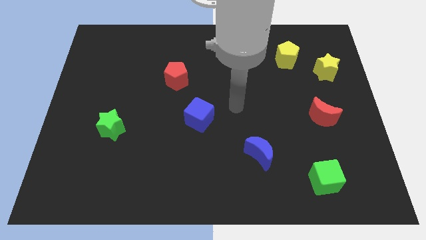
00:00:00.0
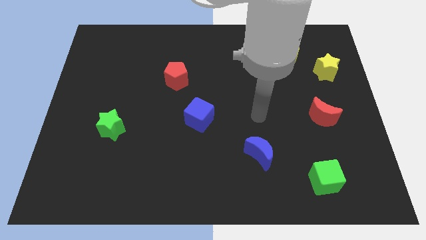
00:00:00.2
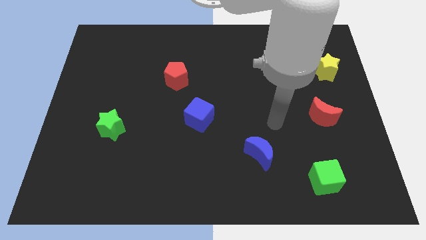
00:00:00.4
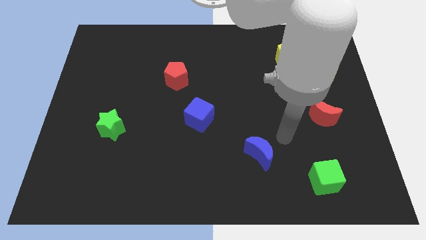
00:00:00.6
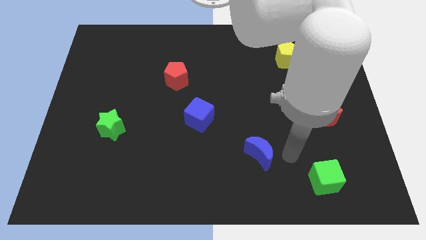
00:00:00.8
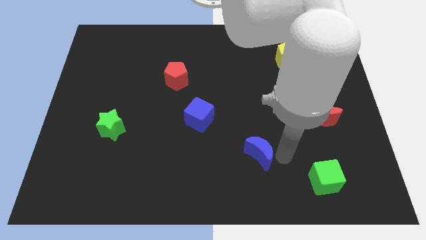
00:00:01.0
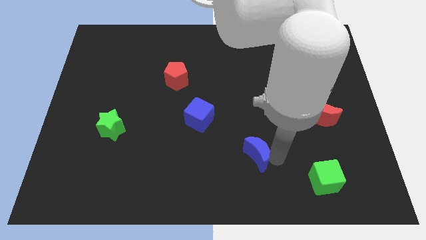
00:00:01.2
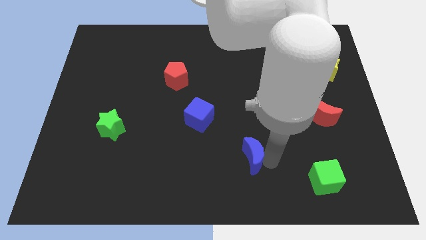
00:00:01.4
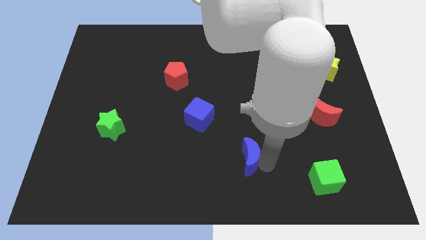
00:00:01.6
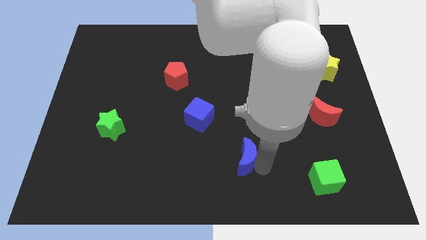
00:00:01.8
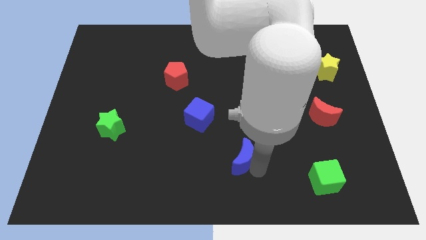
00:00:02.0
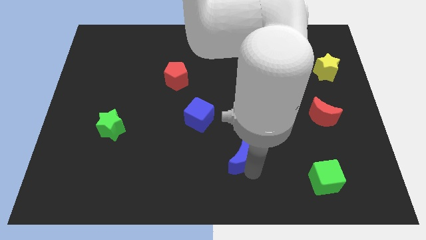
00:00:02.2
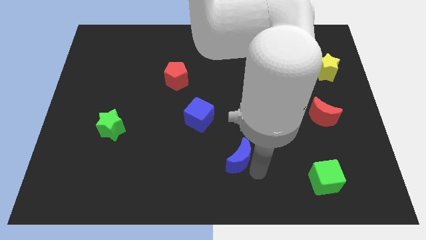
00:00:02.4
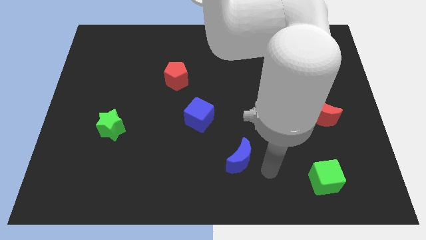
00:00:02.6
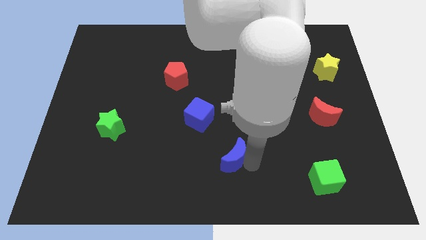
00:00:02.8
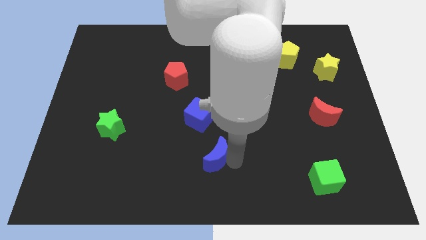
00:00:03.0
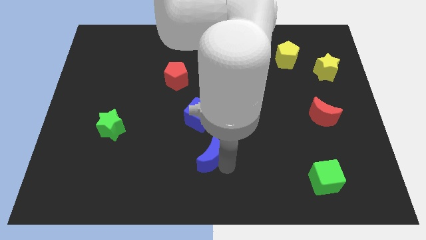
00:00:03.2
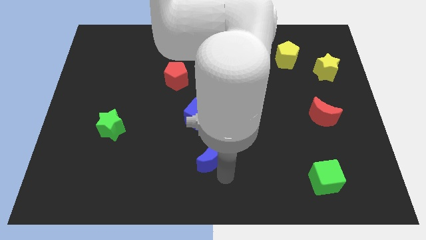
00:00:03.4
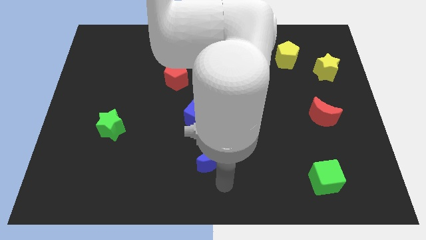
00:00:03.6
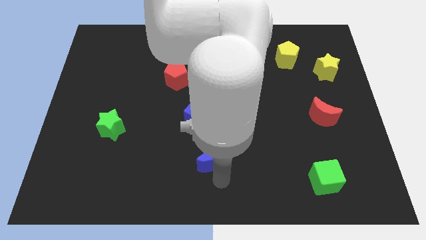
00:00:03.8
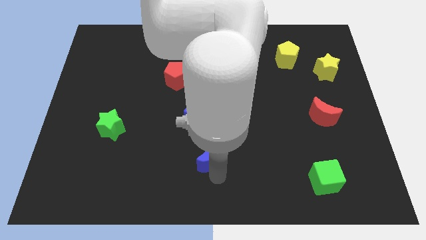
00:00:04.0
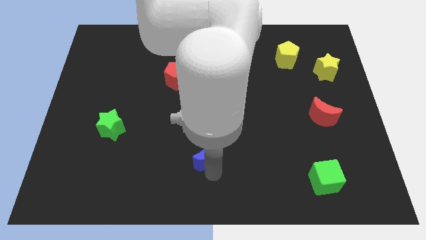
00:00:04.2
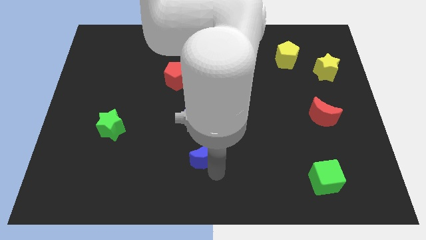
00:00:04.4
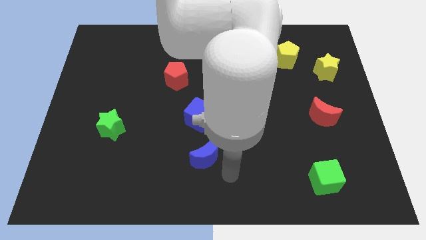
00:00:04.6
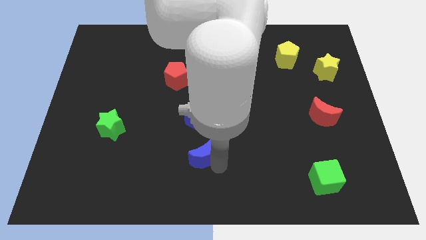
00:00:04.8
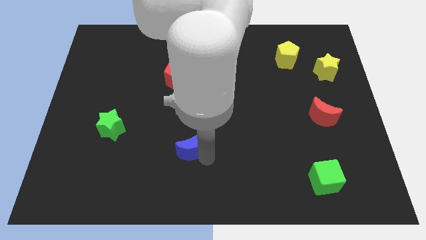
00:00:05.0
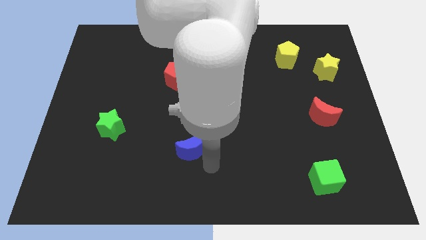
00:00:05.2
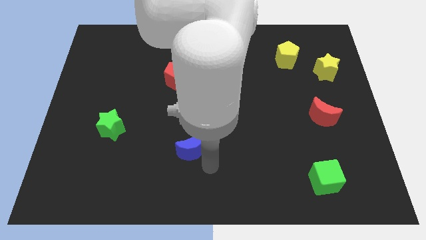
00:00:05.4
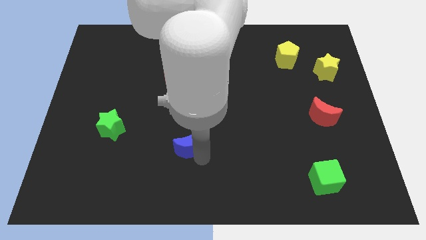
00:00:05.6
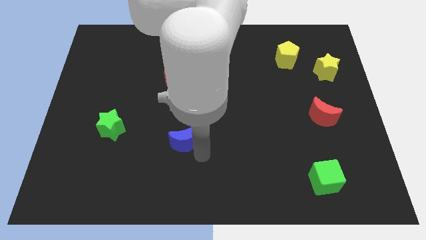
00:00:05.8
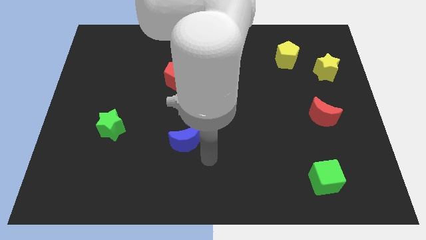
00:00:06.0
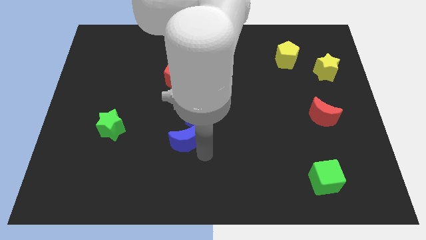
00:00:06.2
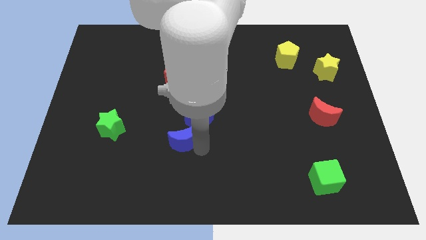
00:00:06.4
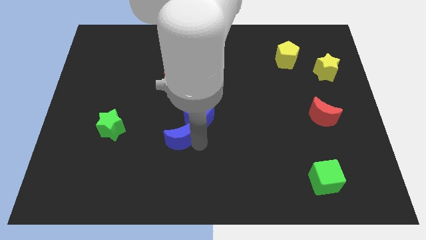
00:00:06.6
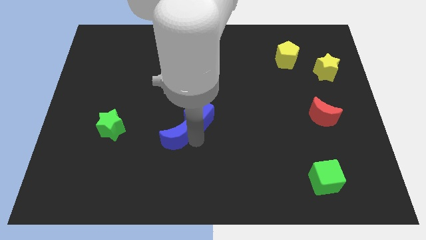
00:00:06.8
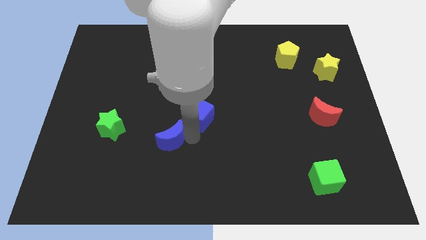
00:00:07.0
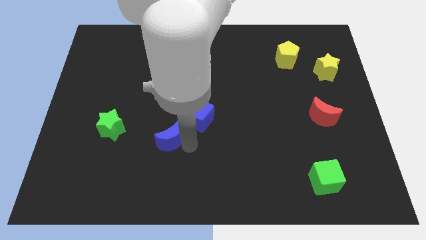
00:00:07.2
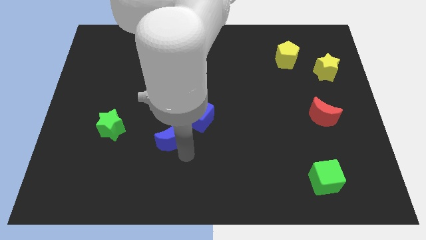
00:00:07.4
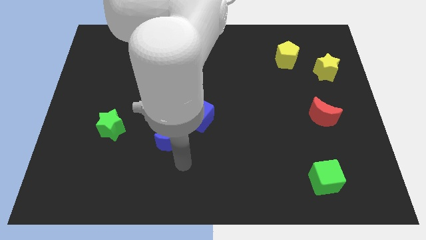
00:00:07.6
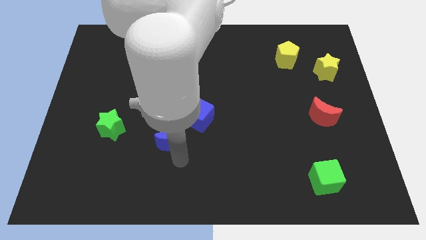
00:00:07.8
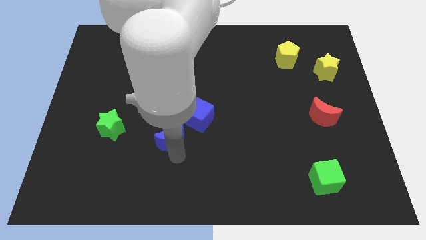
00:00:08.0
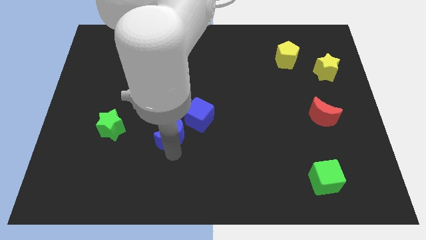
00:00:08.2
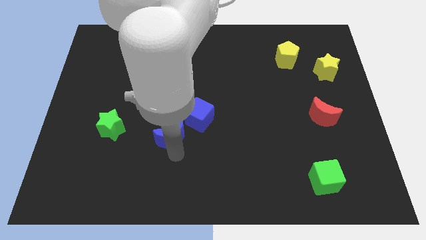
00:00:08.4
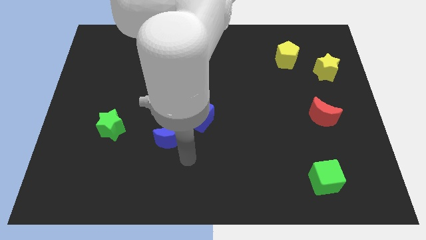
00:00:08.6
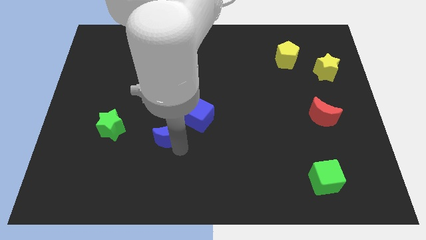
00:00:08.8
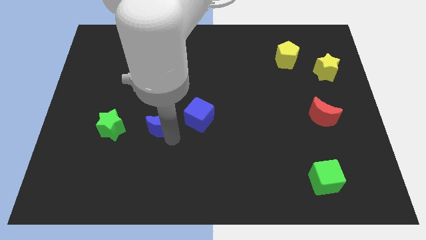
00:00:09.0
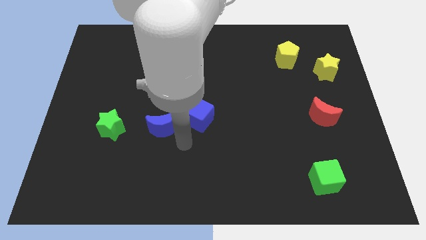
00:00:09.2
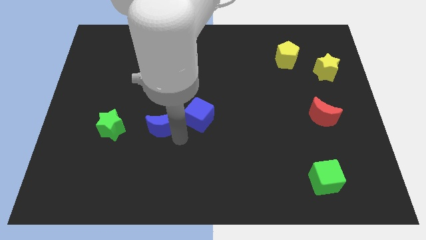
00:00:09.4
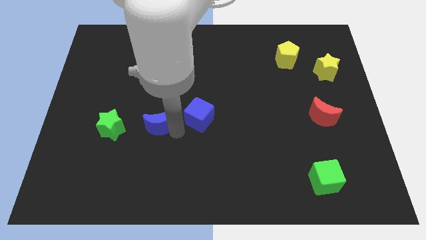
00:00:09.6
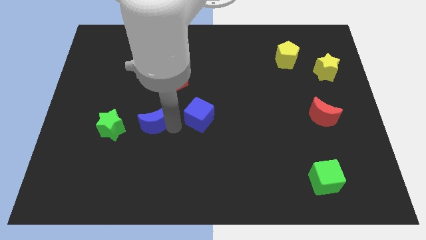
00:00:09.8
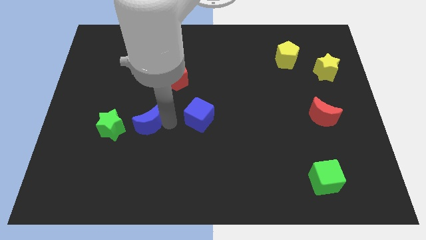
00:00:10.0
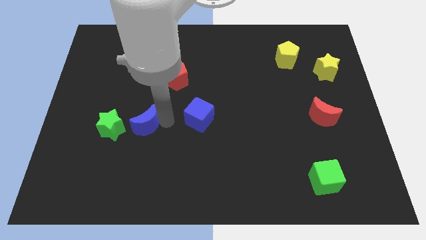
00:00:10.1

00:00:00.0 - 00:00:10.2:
slide the blue moon diagonally up and to the right of the green star
